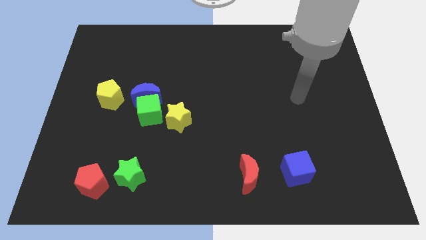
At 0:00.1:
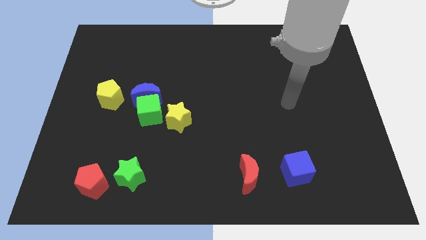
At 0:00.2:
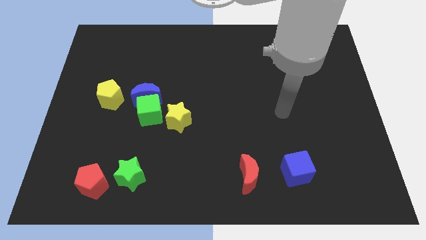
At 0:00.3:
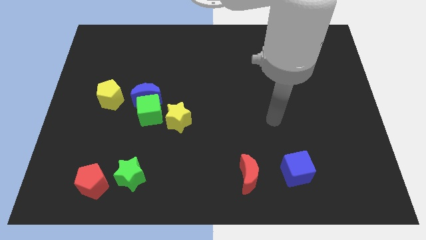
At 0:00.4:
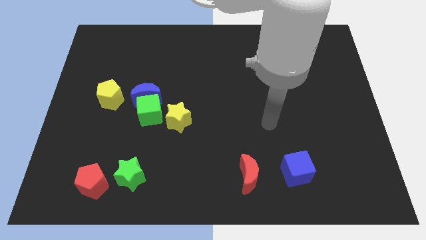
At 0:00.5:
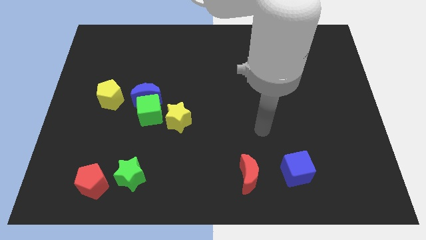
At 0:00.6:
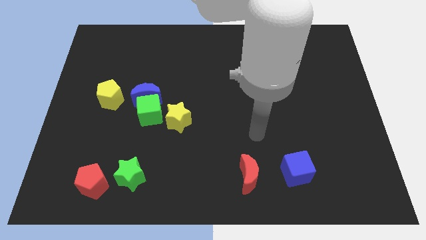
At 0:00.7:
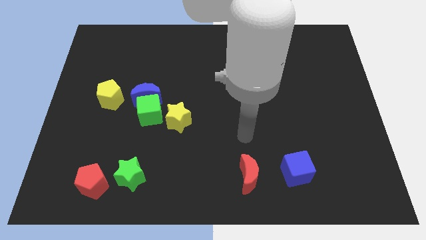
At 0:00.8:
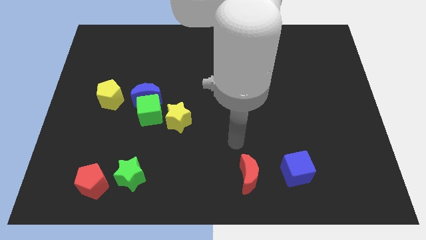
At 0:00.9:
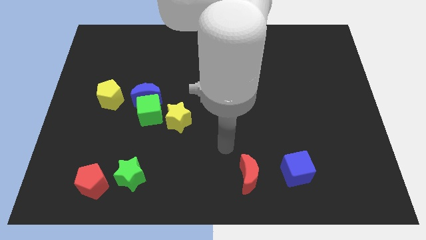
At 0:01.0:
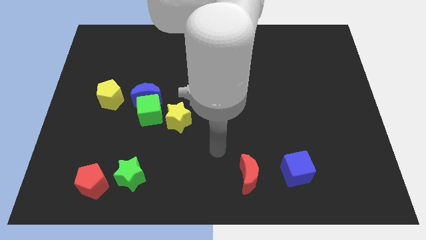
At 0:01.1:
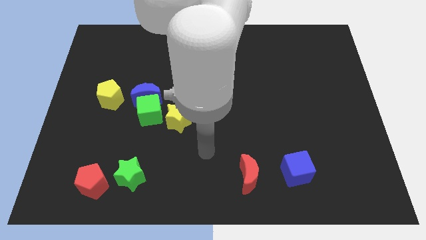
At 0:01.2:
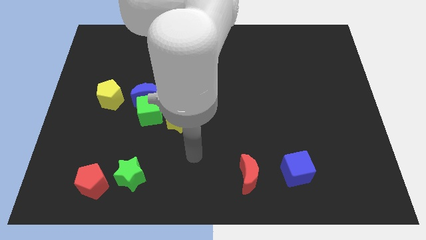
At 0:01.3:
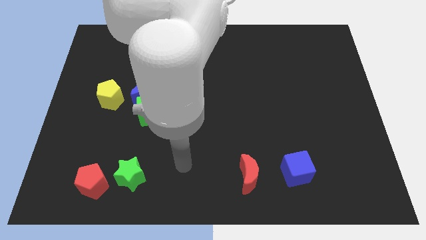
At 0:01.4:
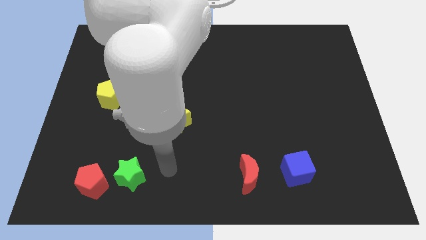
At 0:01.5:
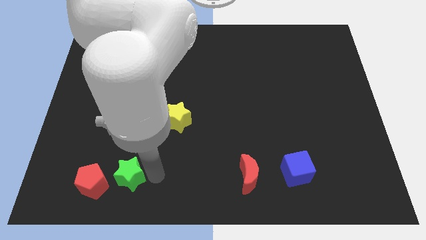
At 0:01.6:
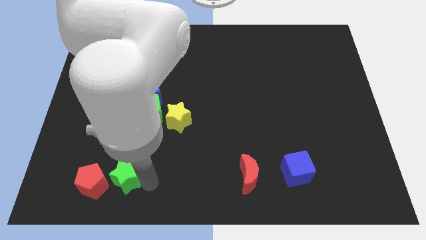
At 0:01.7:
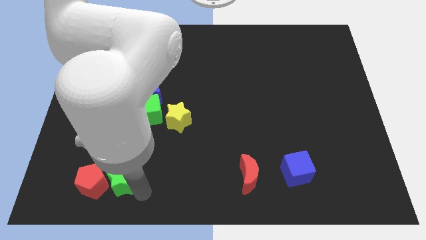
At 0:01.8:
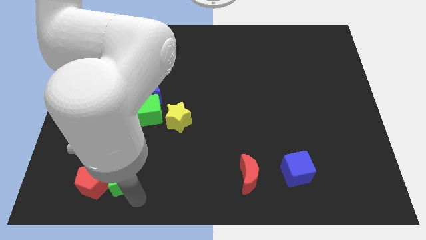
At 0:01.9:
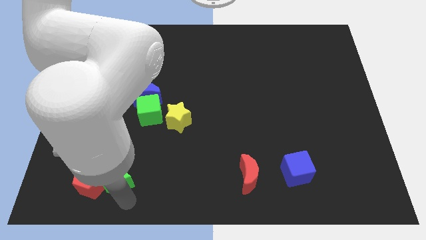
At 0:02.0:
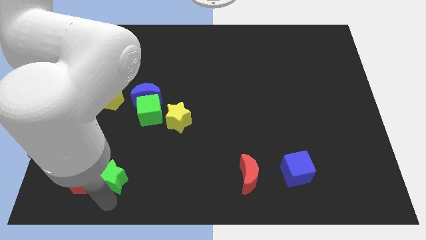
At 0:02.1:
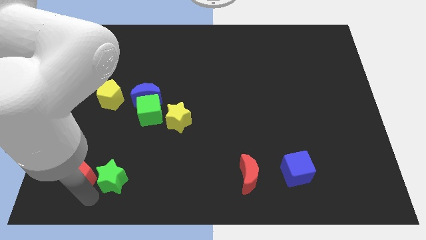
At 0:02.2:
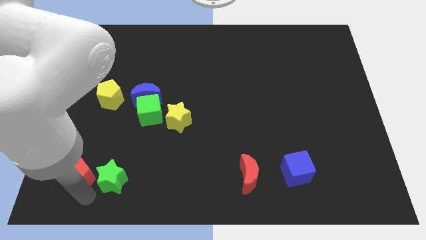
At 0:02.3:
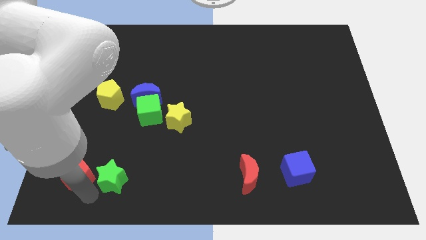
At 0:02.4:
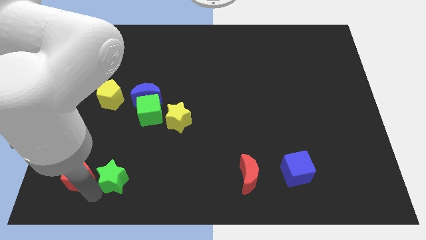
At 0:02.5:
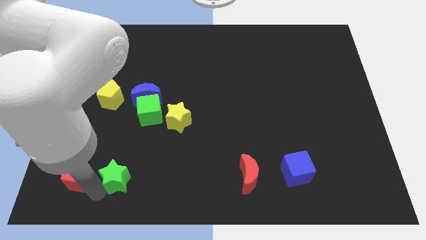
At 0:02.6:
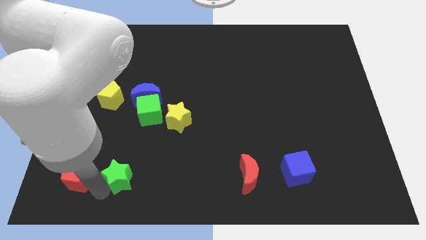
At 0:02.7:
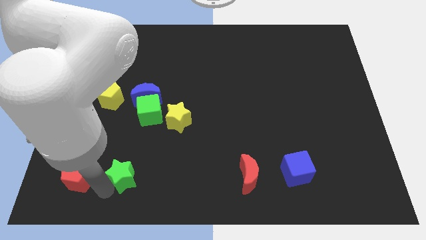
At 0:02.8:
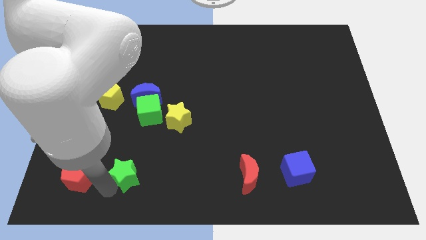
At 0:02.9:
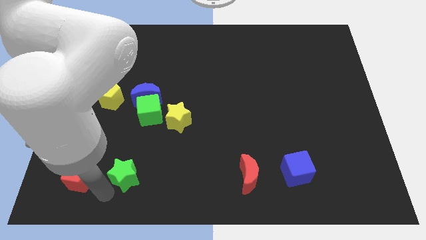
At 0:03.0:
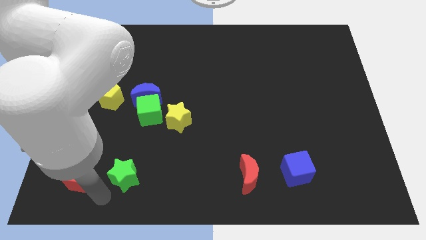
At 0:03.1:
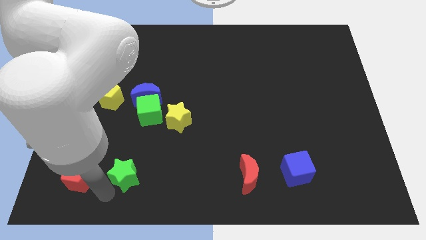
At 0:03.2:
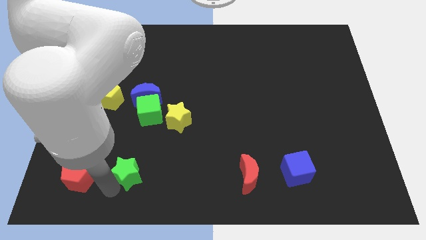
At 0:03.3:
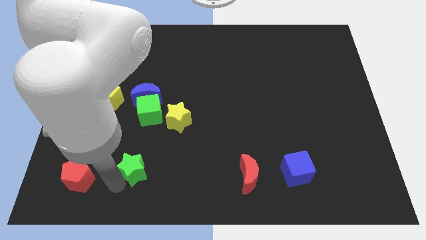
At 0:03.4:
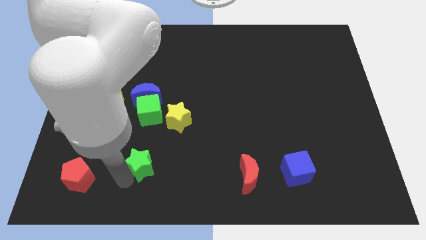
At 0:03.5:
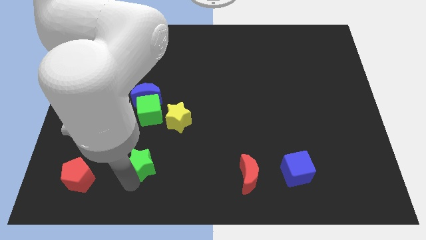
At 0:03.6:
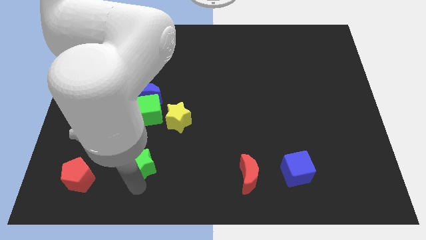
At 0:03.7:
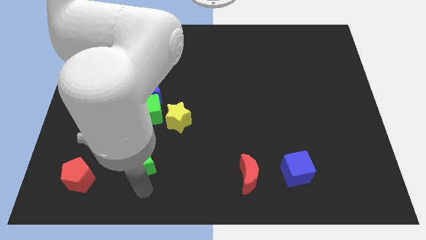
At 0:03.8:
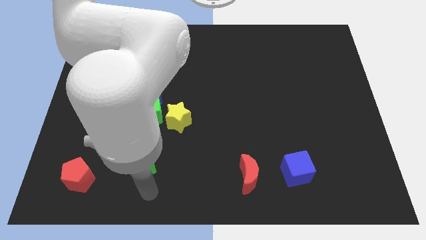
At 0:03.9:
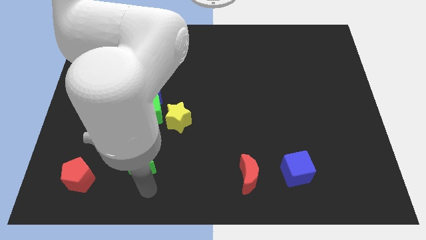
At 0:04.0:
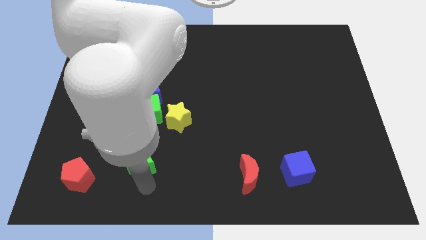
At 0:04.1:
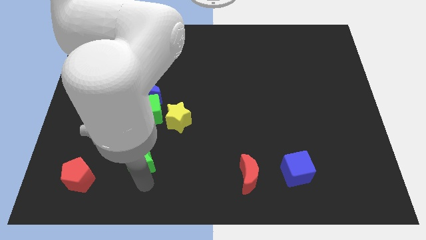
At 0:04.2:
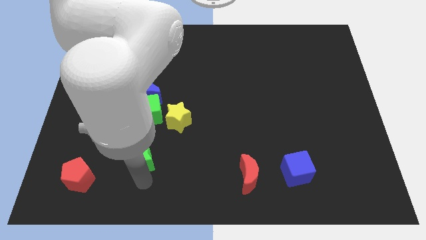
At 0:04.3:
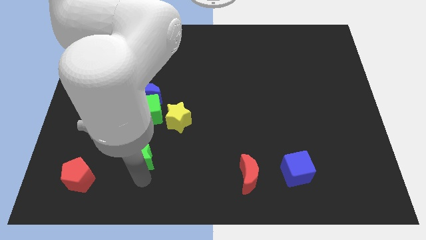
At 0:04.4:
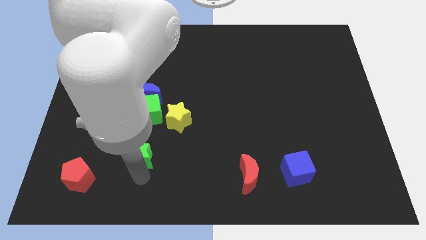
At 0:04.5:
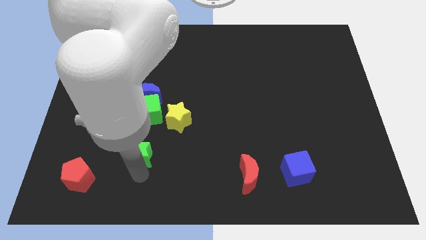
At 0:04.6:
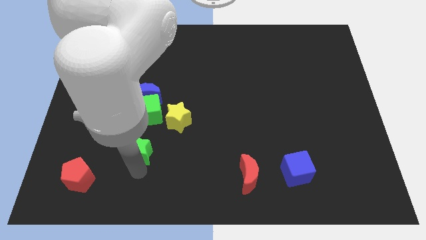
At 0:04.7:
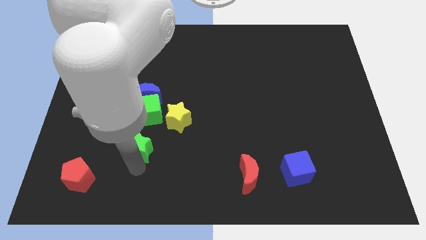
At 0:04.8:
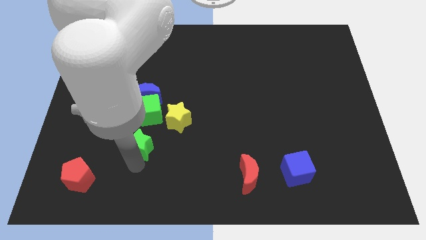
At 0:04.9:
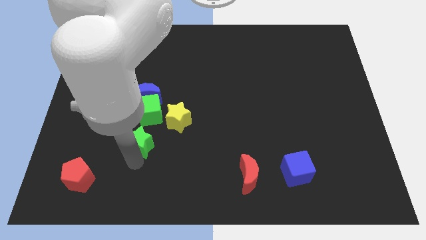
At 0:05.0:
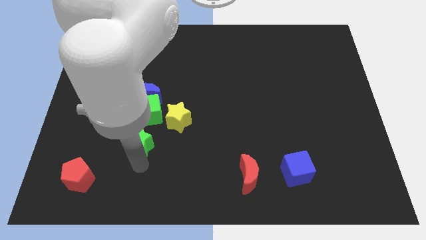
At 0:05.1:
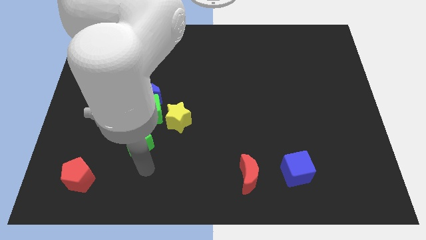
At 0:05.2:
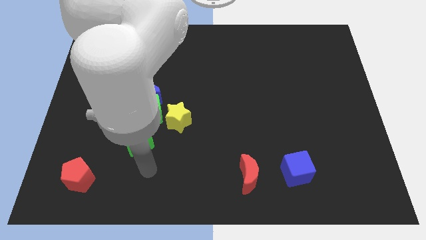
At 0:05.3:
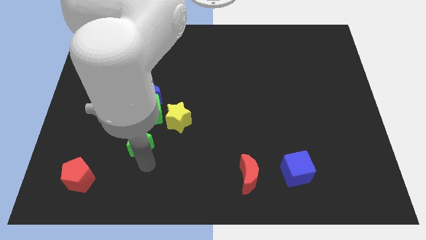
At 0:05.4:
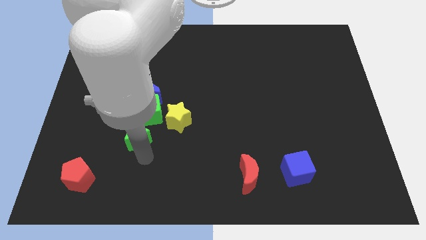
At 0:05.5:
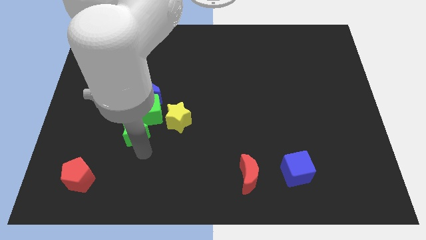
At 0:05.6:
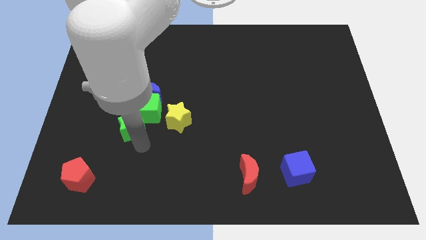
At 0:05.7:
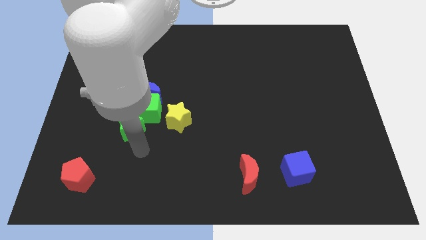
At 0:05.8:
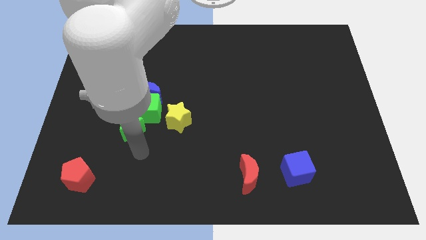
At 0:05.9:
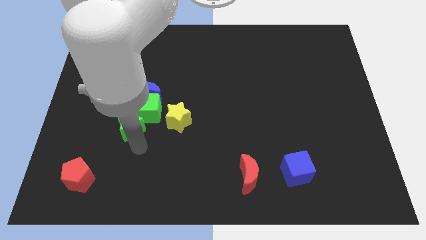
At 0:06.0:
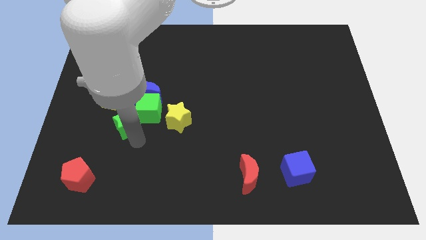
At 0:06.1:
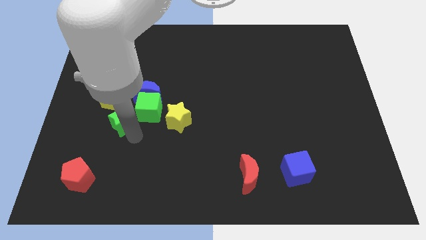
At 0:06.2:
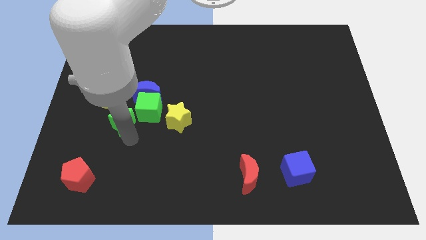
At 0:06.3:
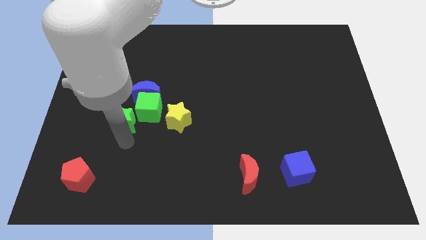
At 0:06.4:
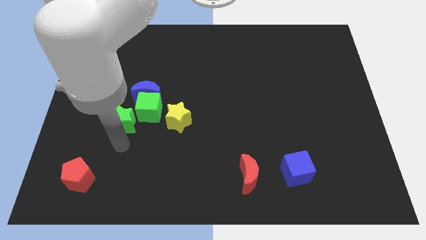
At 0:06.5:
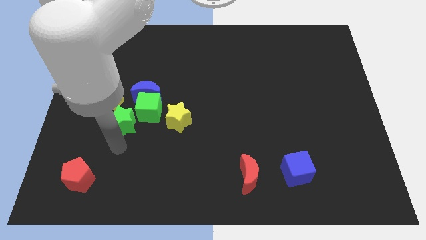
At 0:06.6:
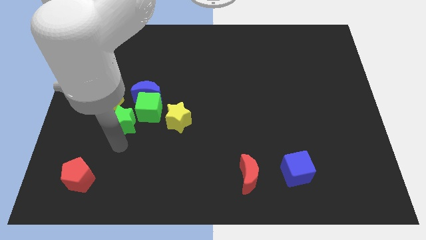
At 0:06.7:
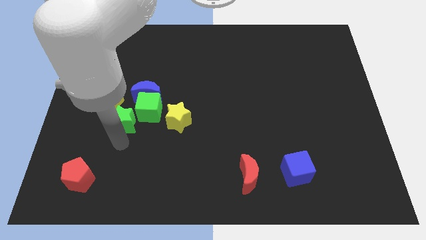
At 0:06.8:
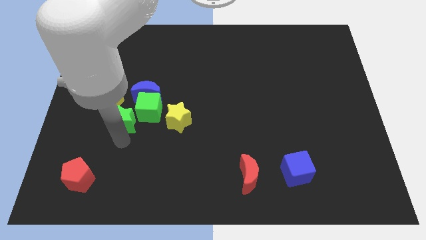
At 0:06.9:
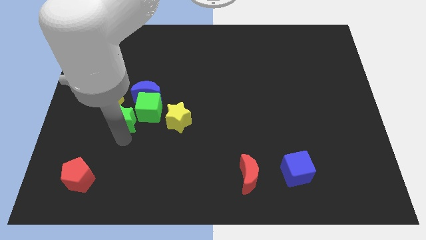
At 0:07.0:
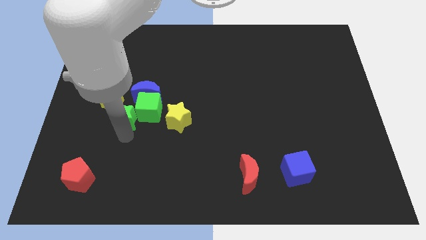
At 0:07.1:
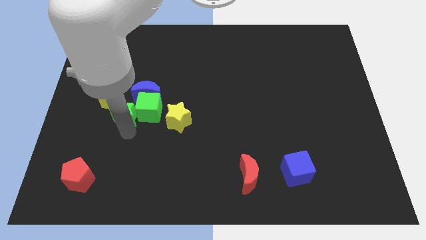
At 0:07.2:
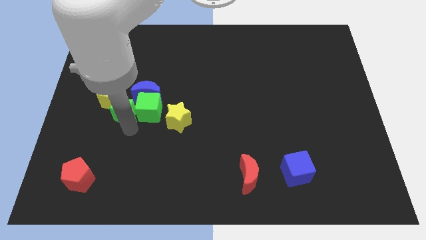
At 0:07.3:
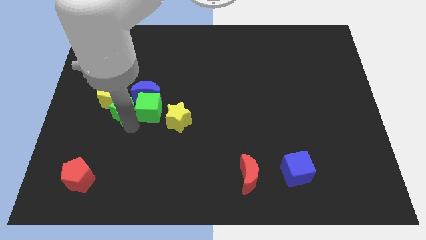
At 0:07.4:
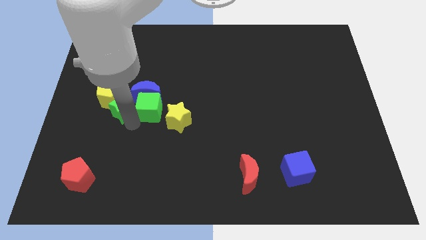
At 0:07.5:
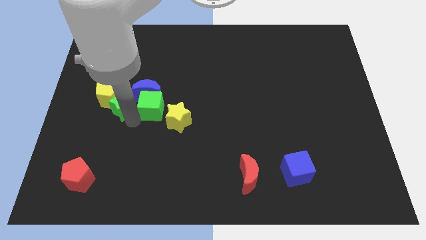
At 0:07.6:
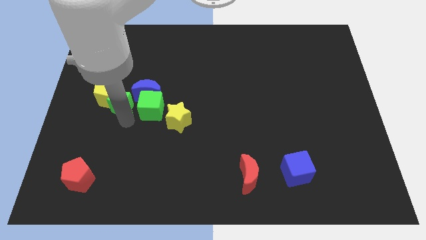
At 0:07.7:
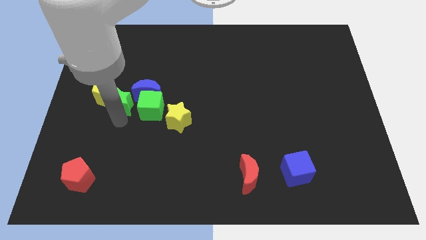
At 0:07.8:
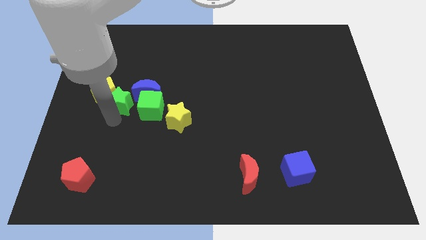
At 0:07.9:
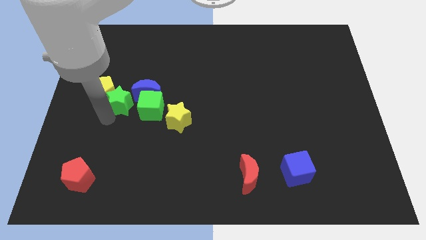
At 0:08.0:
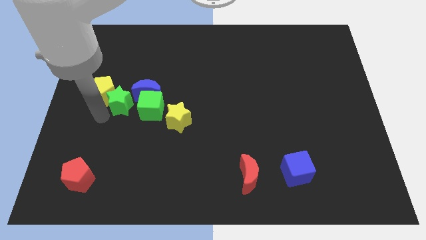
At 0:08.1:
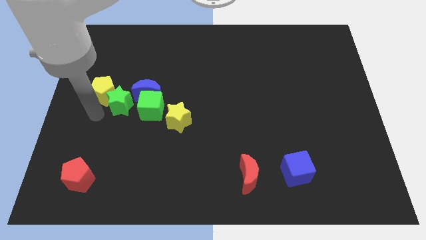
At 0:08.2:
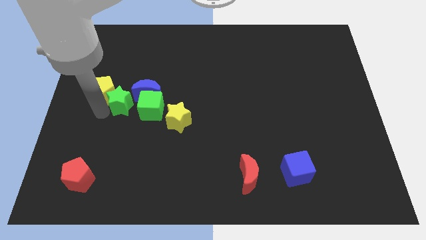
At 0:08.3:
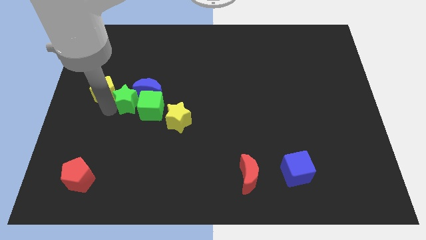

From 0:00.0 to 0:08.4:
put the green star next to the blue moon
